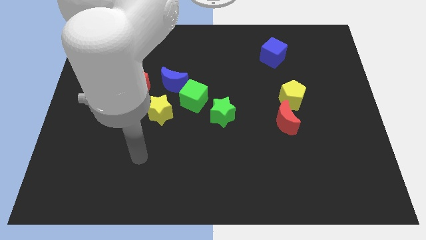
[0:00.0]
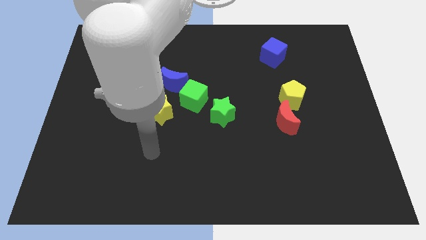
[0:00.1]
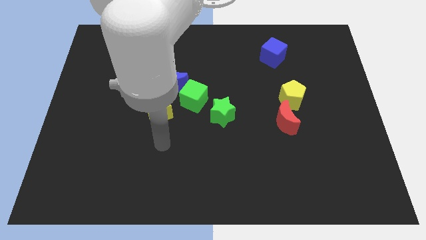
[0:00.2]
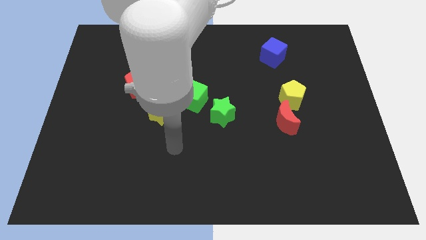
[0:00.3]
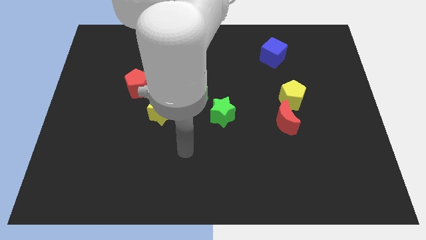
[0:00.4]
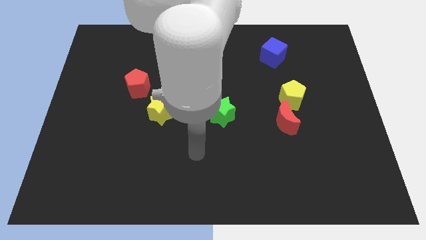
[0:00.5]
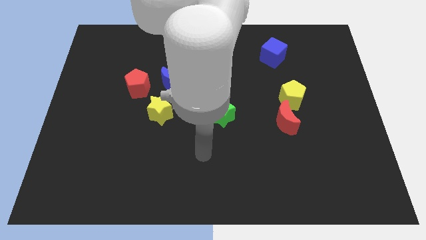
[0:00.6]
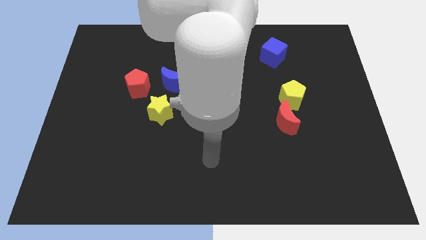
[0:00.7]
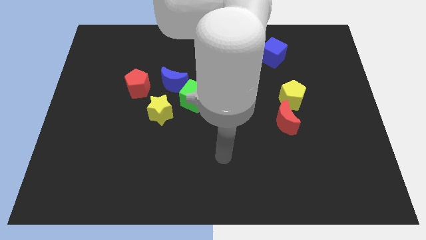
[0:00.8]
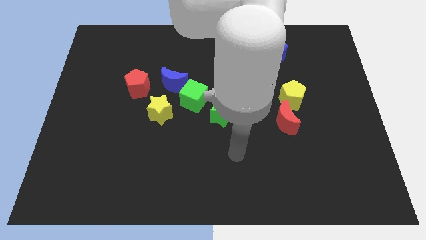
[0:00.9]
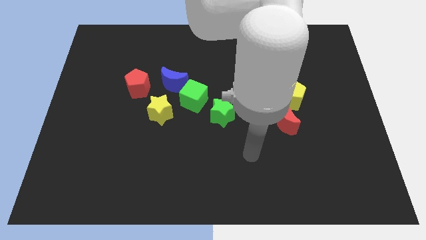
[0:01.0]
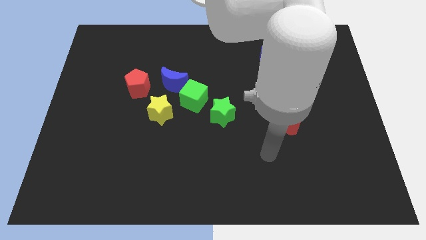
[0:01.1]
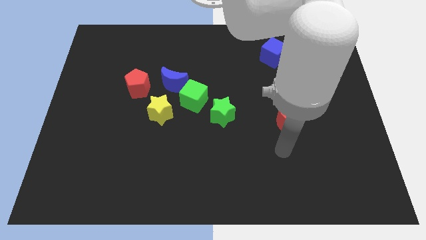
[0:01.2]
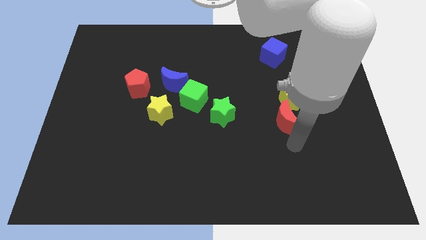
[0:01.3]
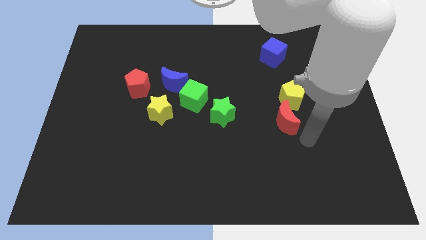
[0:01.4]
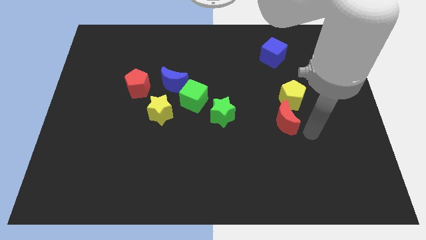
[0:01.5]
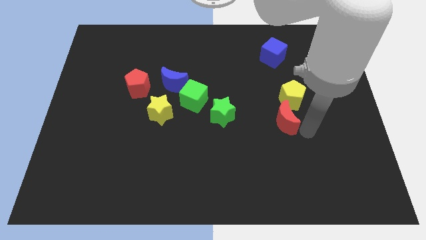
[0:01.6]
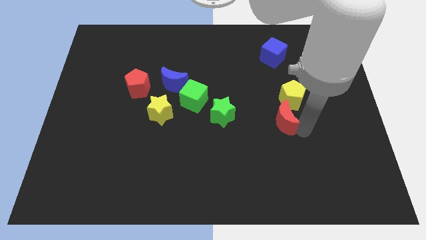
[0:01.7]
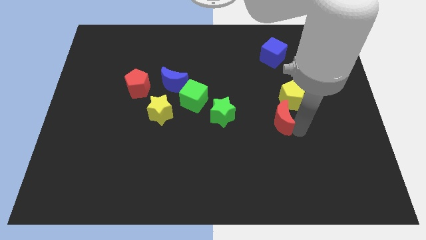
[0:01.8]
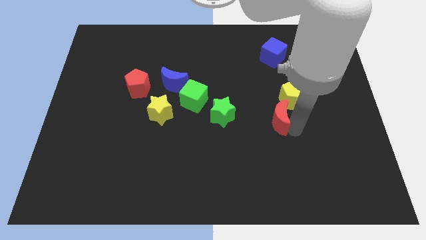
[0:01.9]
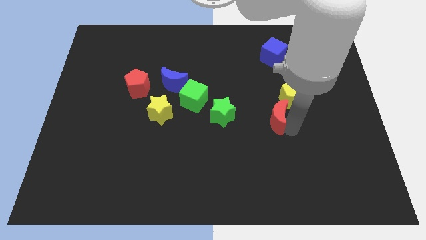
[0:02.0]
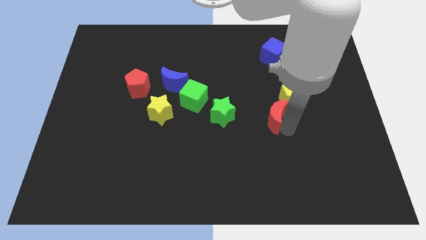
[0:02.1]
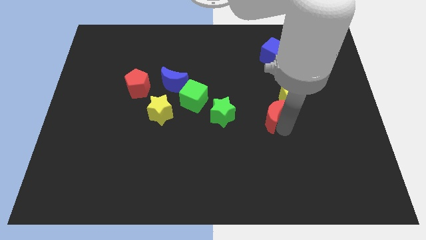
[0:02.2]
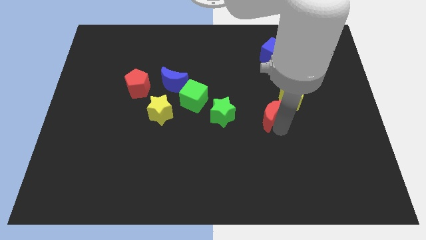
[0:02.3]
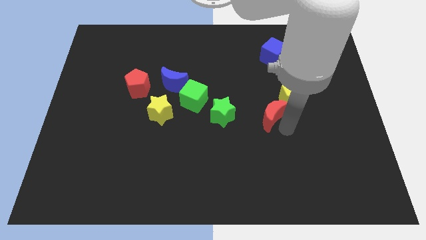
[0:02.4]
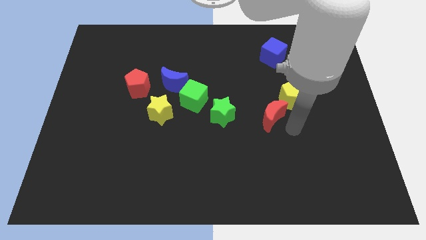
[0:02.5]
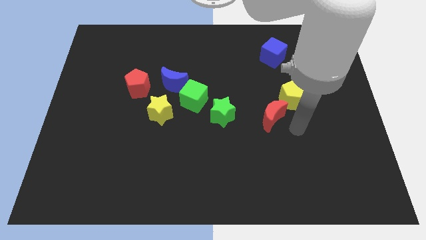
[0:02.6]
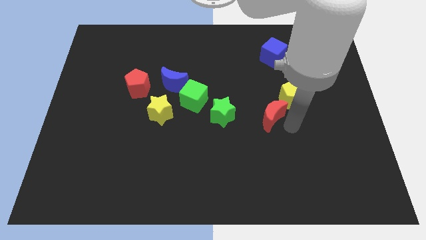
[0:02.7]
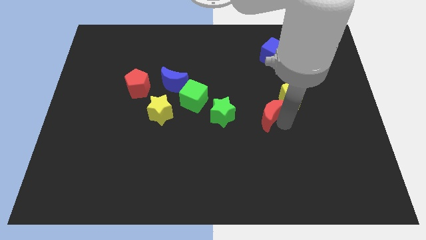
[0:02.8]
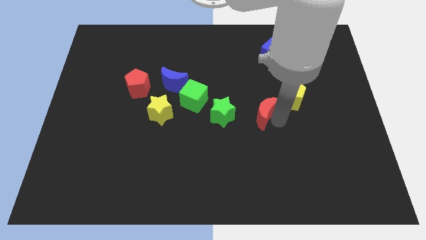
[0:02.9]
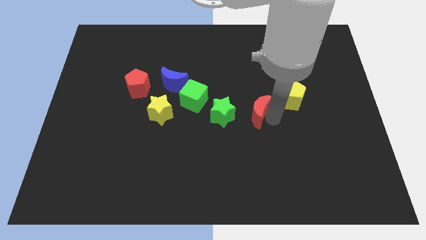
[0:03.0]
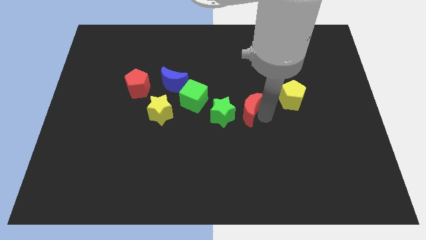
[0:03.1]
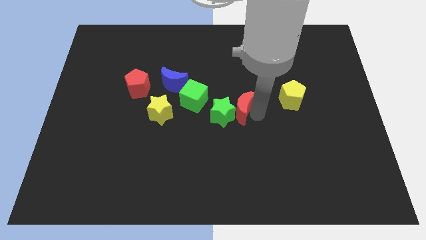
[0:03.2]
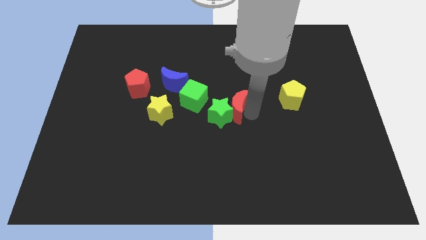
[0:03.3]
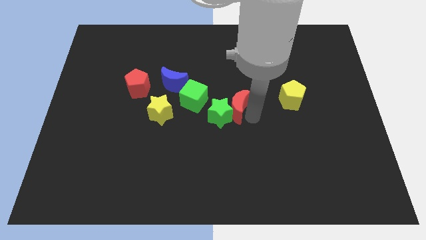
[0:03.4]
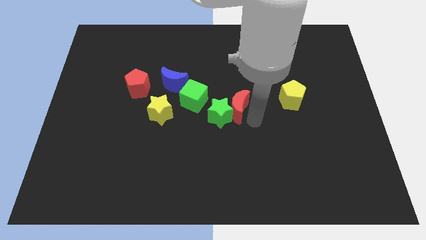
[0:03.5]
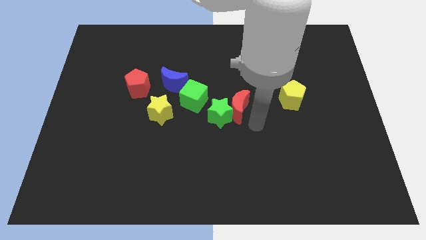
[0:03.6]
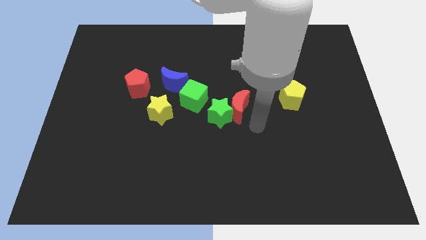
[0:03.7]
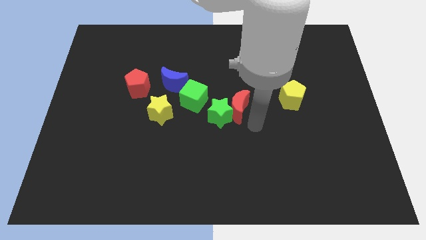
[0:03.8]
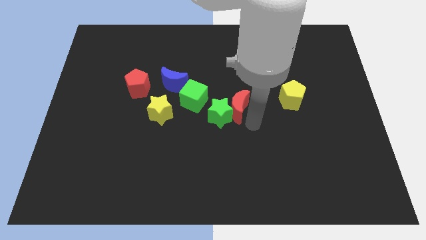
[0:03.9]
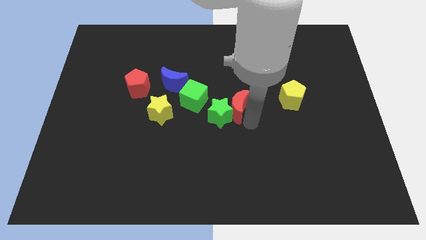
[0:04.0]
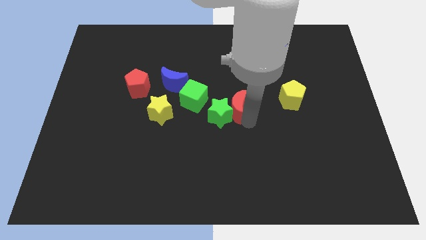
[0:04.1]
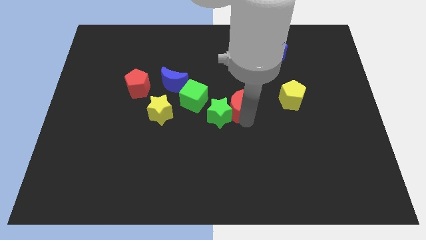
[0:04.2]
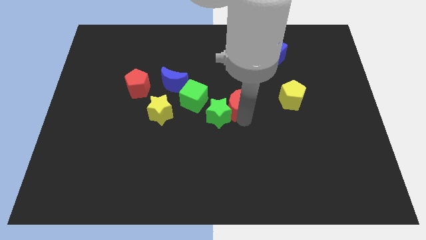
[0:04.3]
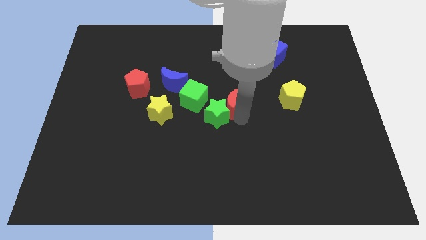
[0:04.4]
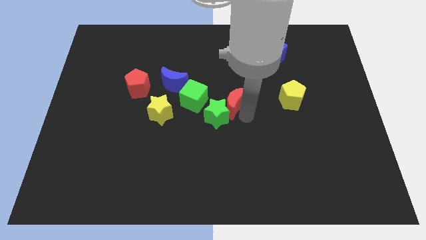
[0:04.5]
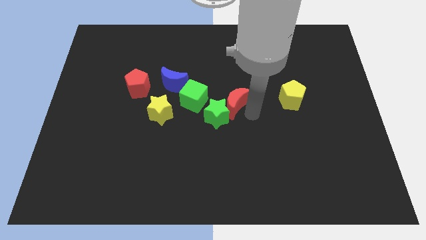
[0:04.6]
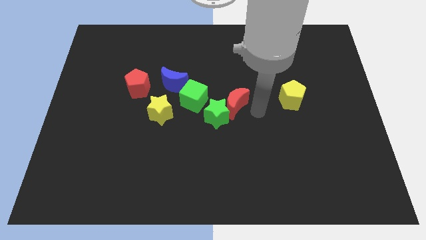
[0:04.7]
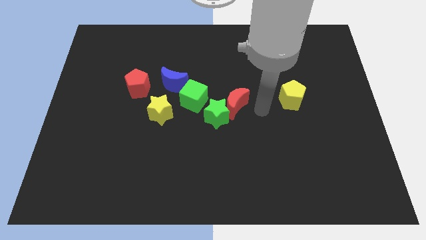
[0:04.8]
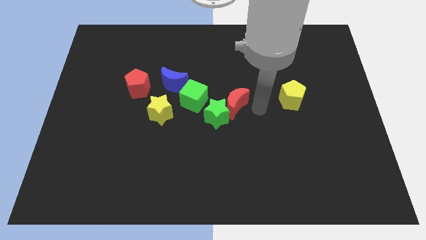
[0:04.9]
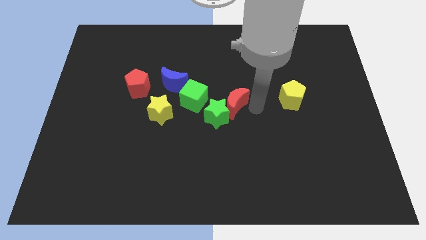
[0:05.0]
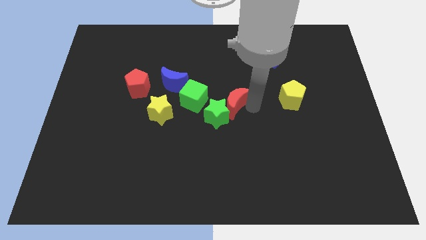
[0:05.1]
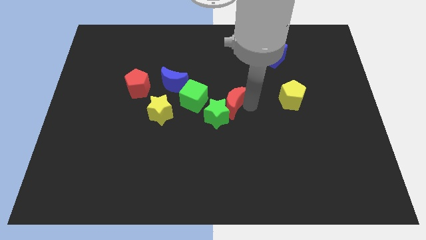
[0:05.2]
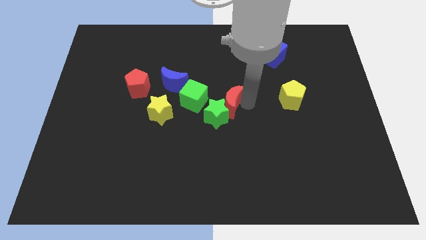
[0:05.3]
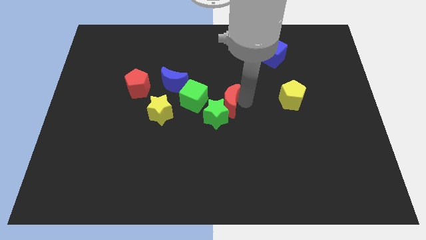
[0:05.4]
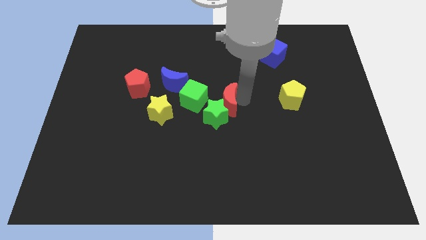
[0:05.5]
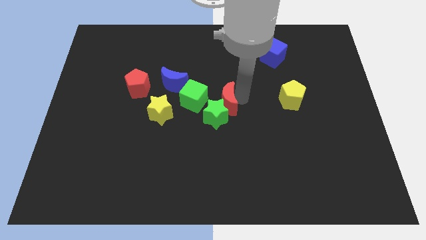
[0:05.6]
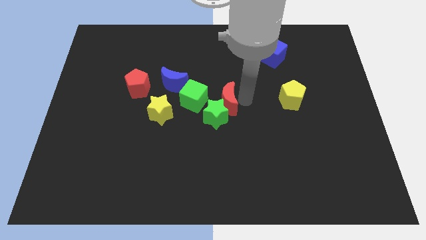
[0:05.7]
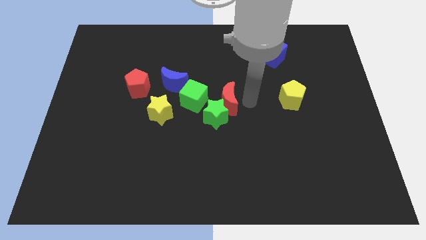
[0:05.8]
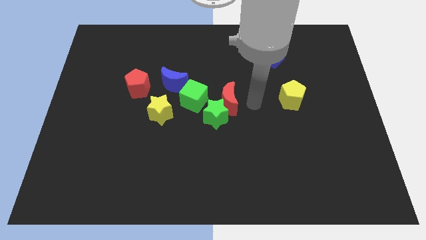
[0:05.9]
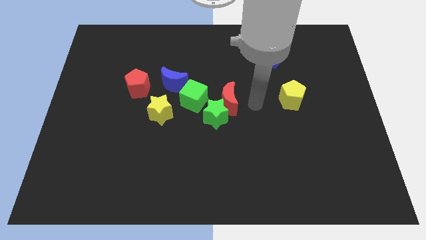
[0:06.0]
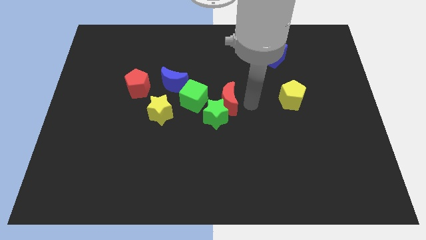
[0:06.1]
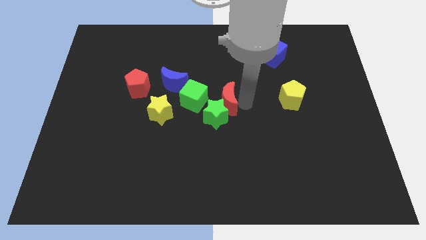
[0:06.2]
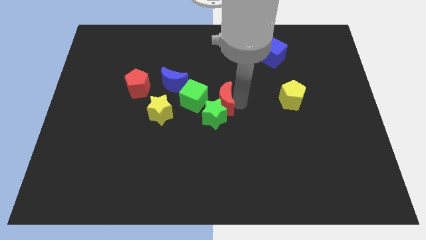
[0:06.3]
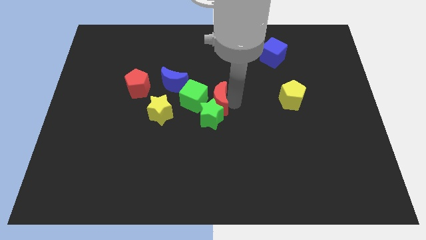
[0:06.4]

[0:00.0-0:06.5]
move the red moon next to the green cube

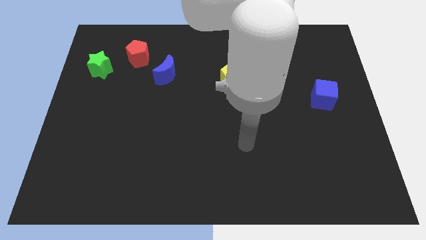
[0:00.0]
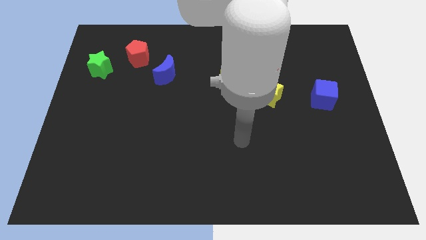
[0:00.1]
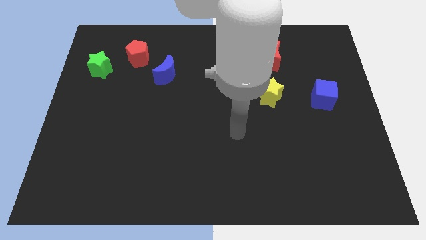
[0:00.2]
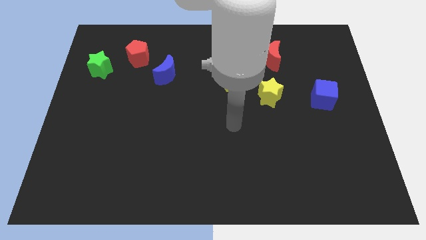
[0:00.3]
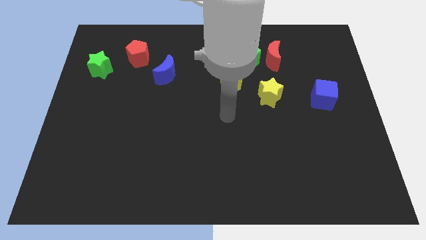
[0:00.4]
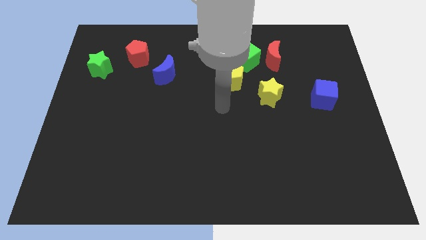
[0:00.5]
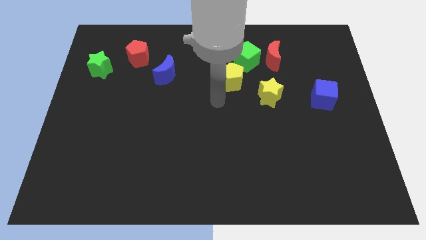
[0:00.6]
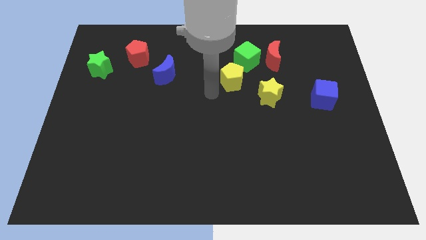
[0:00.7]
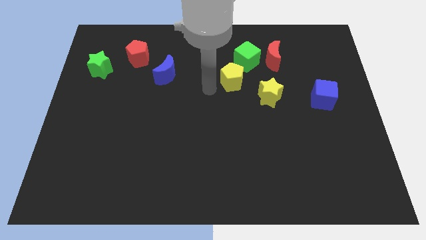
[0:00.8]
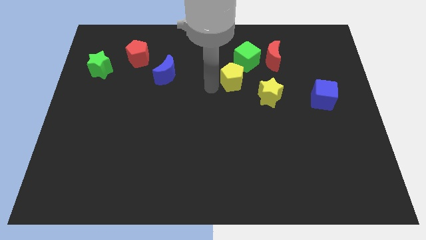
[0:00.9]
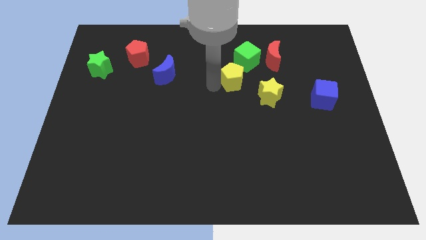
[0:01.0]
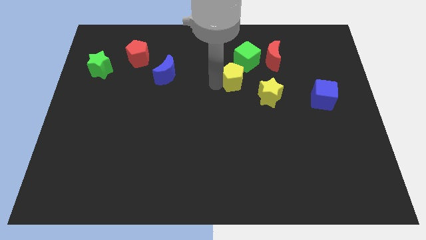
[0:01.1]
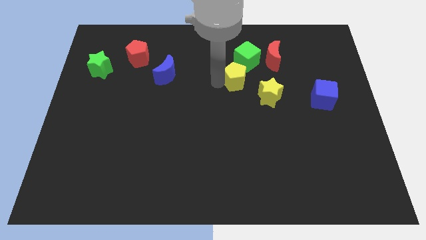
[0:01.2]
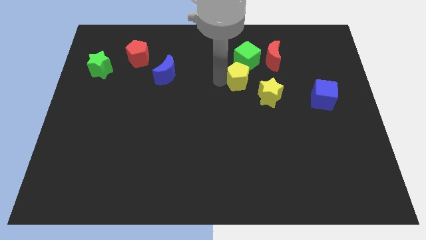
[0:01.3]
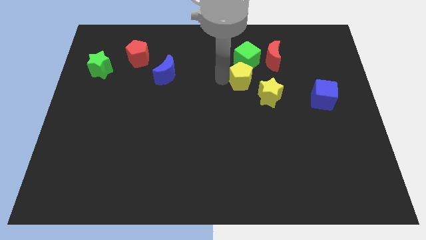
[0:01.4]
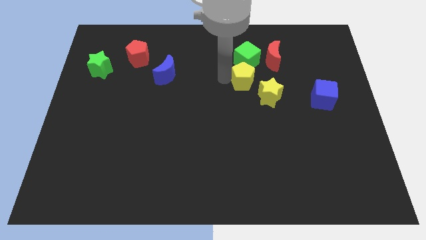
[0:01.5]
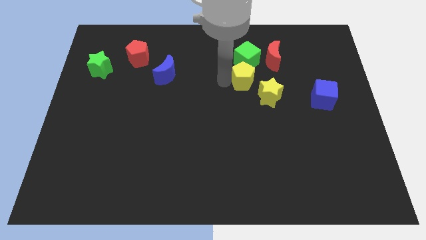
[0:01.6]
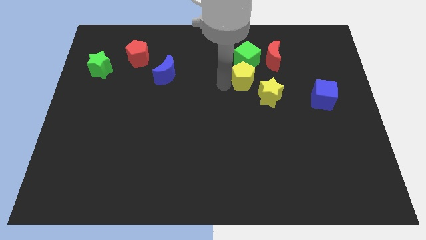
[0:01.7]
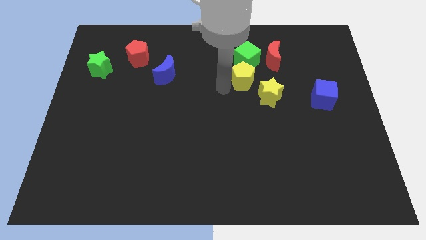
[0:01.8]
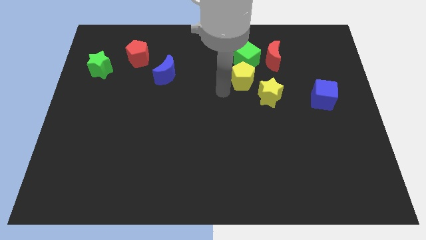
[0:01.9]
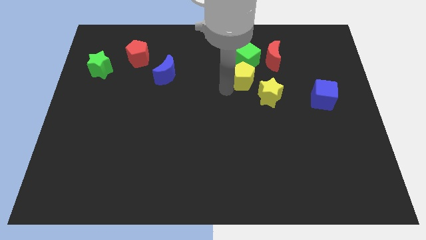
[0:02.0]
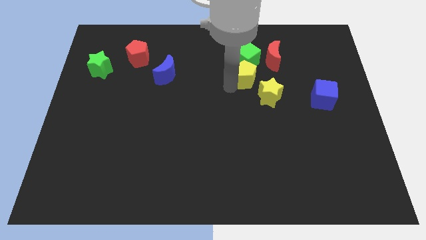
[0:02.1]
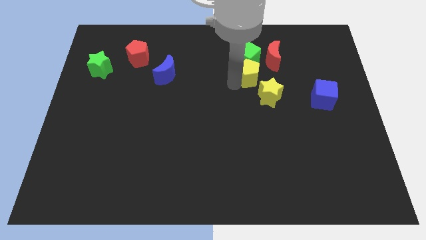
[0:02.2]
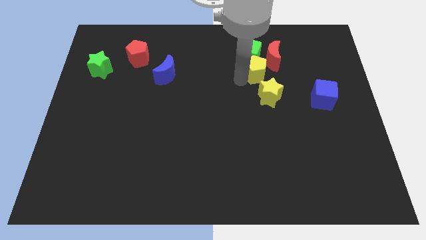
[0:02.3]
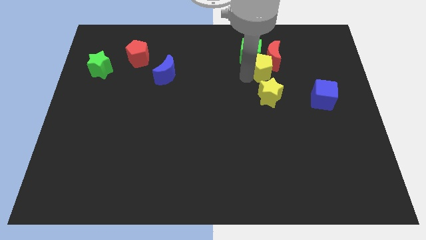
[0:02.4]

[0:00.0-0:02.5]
slide the yellow pentagon close to the red moon
